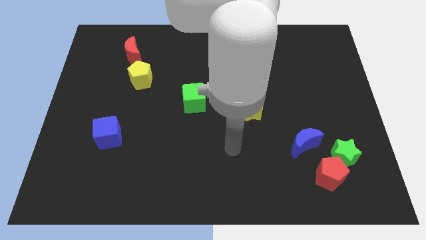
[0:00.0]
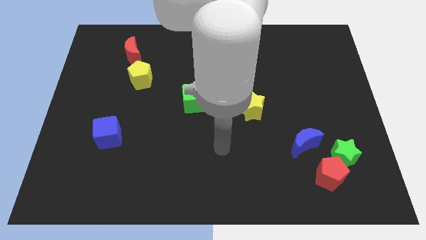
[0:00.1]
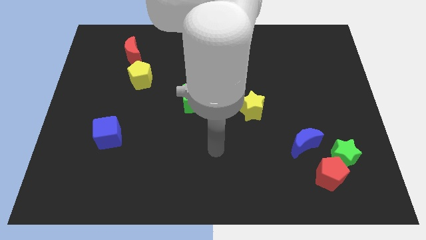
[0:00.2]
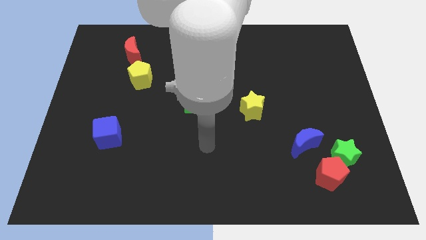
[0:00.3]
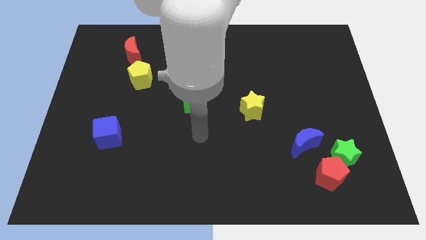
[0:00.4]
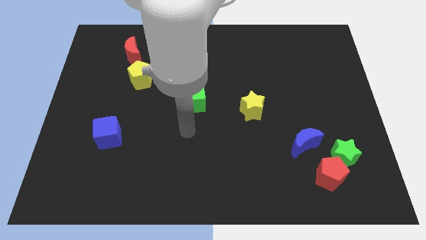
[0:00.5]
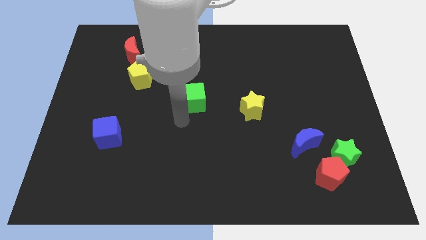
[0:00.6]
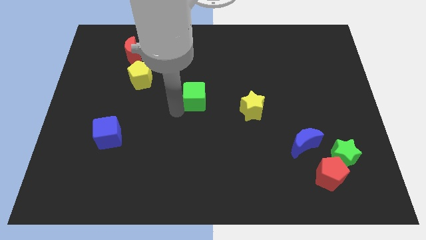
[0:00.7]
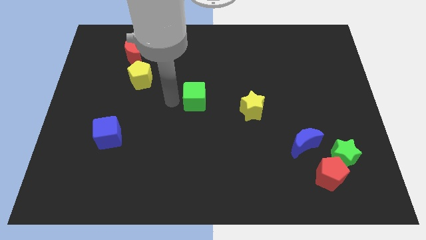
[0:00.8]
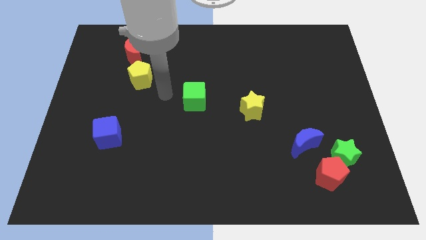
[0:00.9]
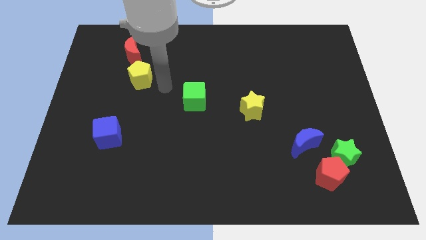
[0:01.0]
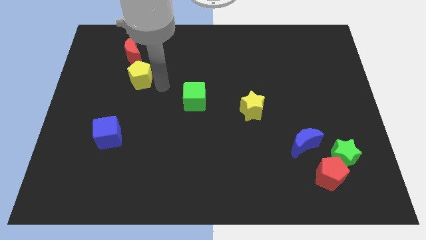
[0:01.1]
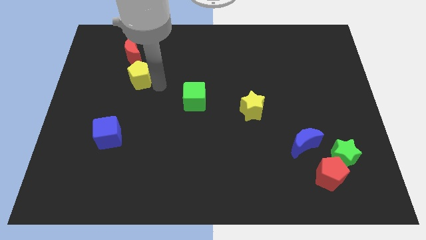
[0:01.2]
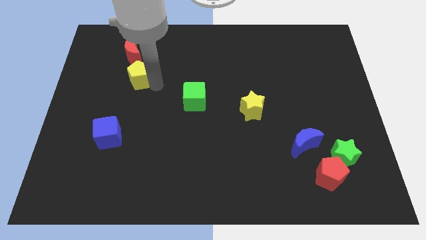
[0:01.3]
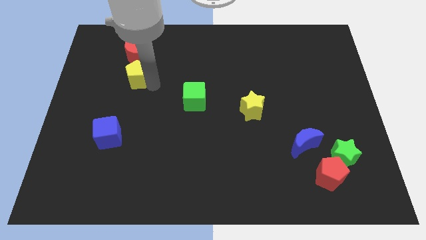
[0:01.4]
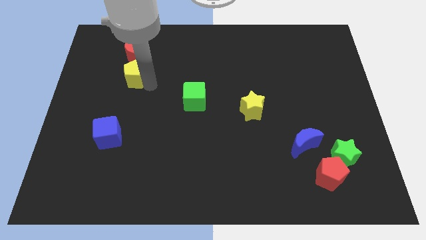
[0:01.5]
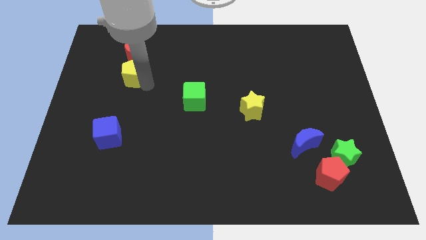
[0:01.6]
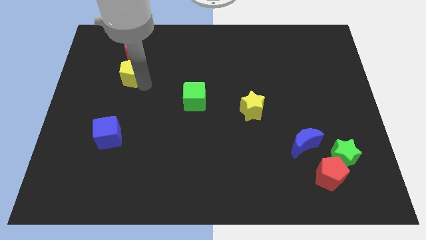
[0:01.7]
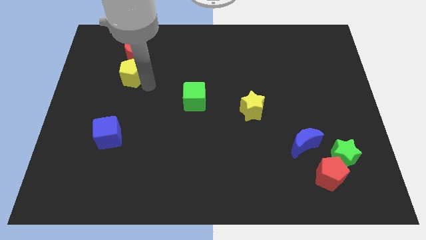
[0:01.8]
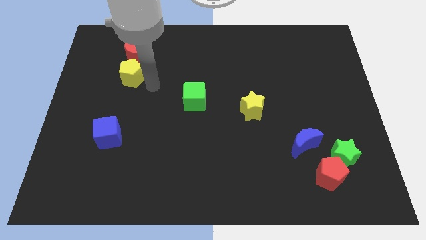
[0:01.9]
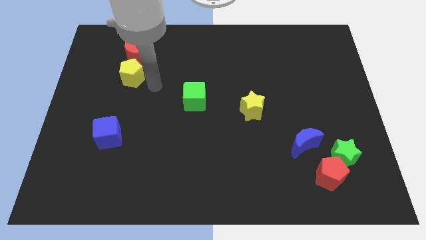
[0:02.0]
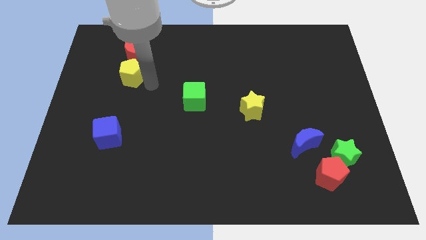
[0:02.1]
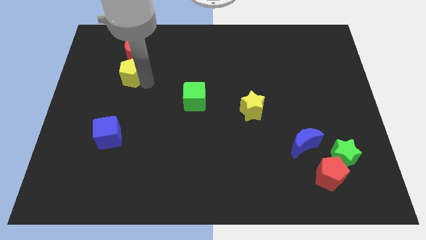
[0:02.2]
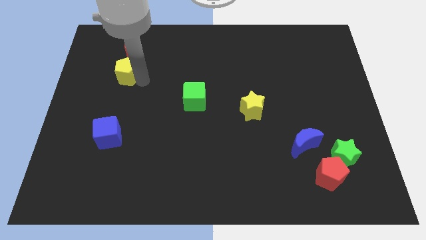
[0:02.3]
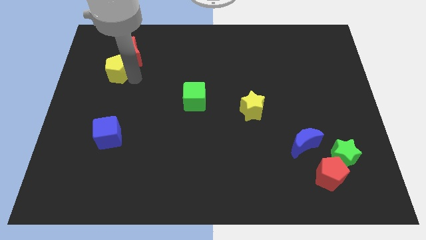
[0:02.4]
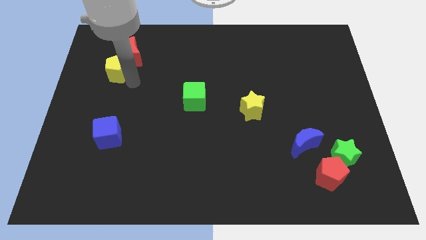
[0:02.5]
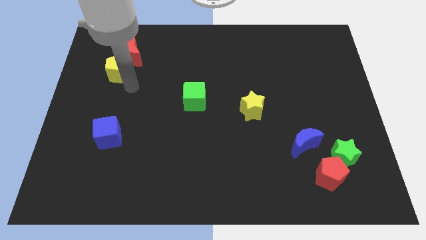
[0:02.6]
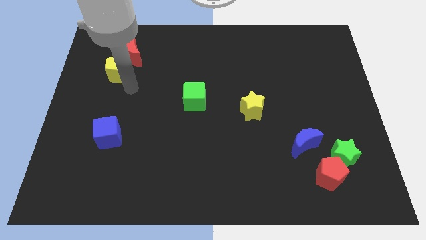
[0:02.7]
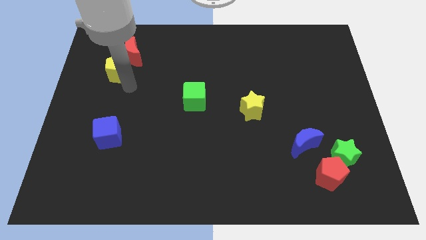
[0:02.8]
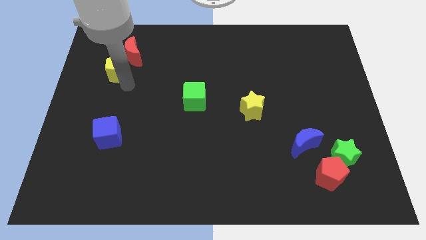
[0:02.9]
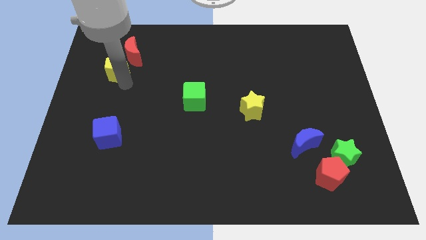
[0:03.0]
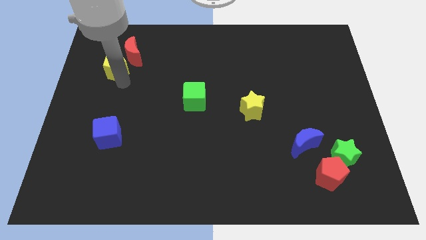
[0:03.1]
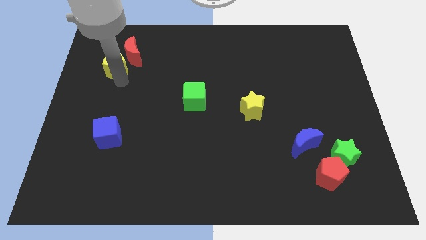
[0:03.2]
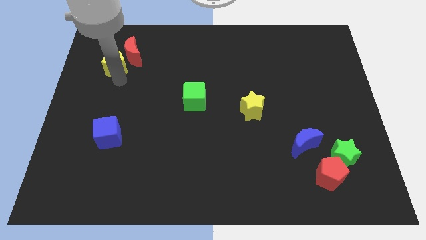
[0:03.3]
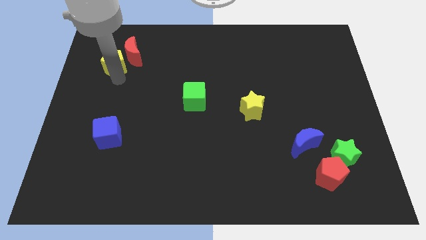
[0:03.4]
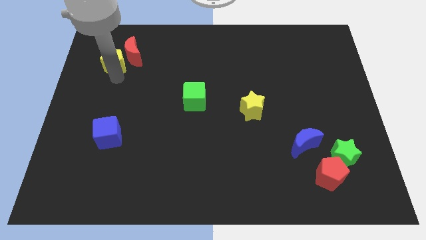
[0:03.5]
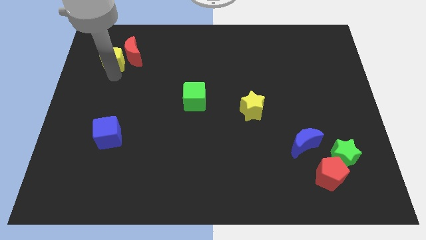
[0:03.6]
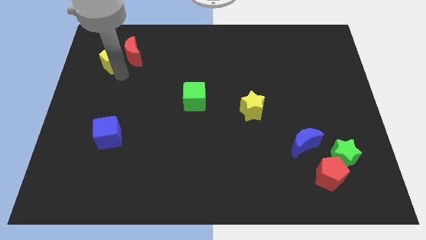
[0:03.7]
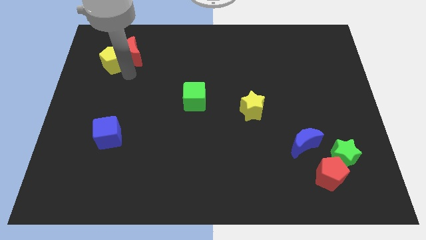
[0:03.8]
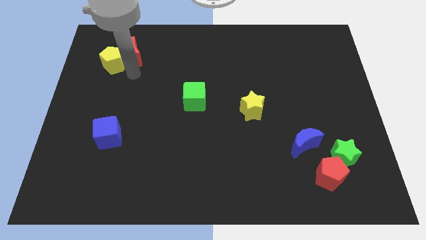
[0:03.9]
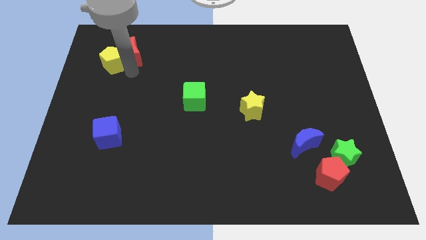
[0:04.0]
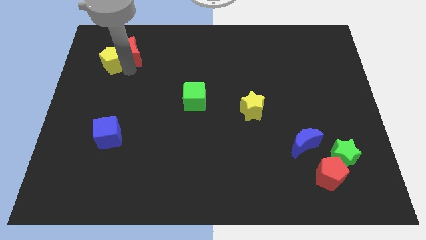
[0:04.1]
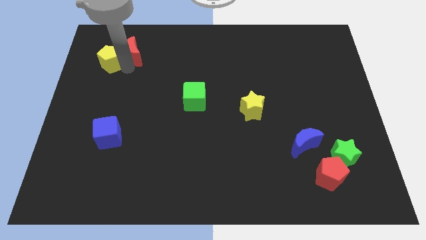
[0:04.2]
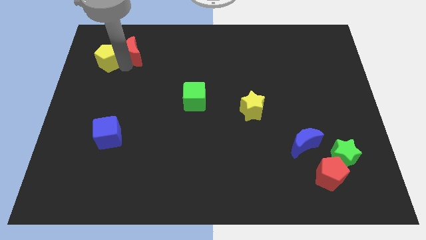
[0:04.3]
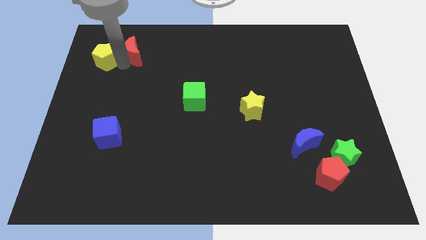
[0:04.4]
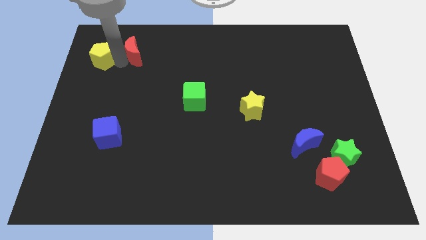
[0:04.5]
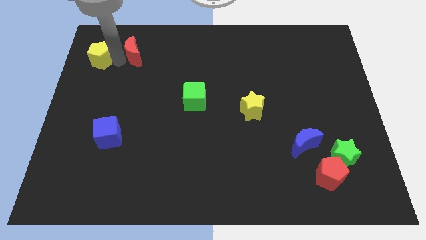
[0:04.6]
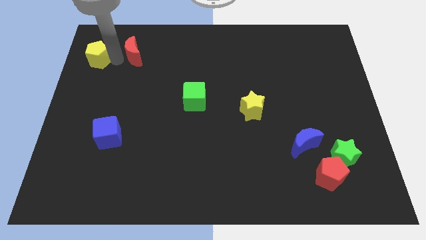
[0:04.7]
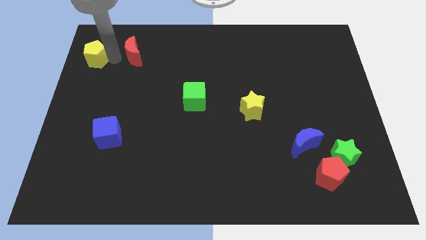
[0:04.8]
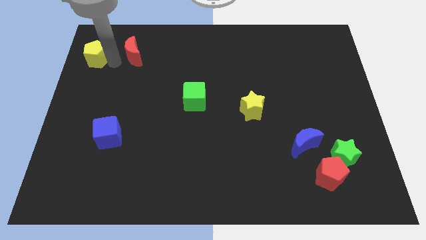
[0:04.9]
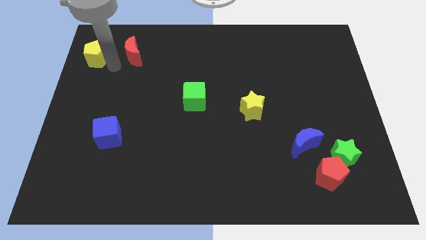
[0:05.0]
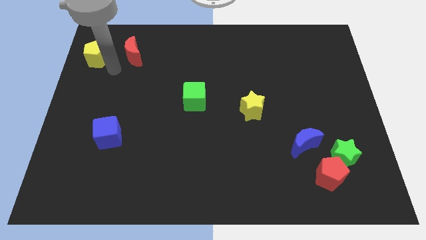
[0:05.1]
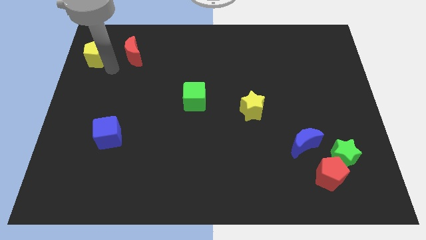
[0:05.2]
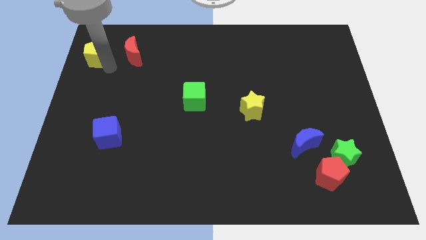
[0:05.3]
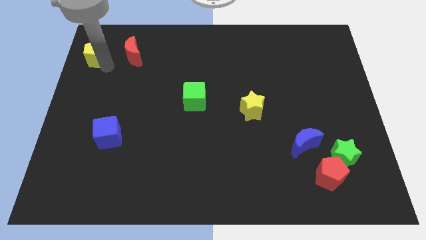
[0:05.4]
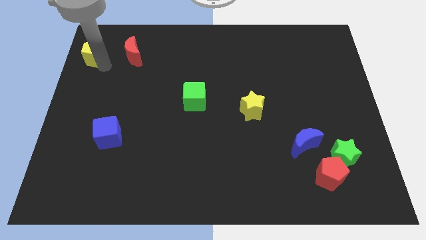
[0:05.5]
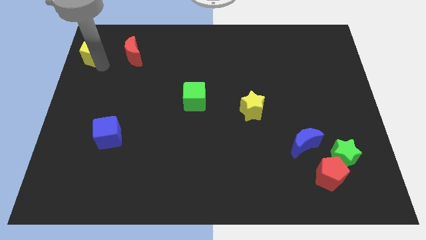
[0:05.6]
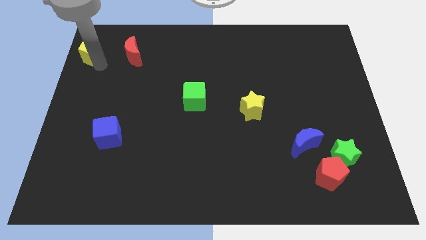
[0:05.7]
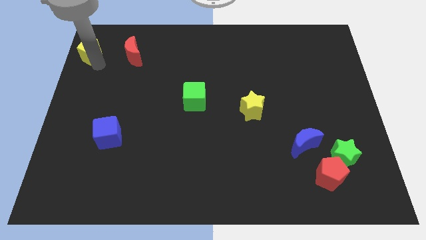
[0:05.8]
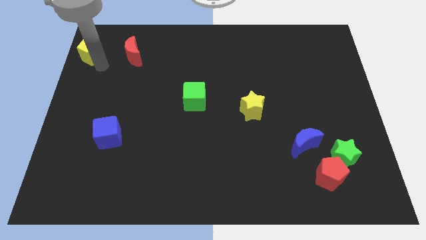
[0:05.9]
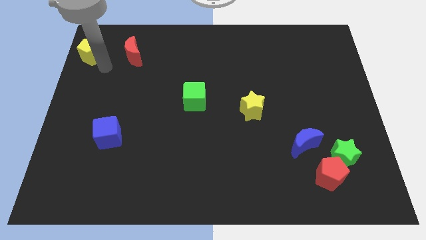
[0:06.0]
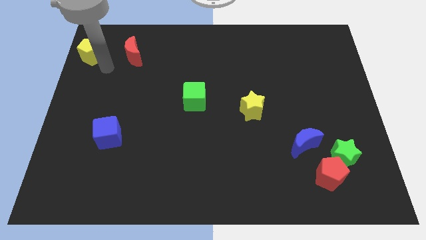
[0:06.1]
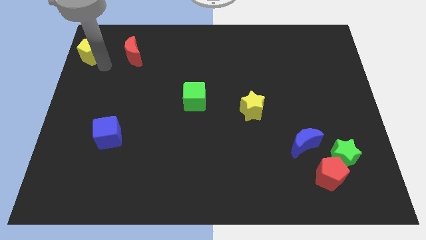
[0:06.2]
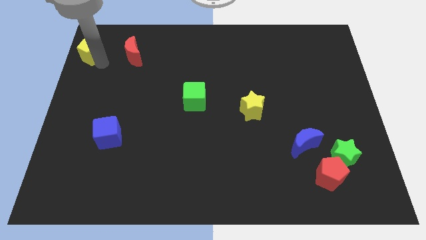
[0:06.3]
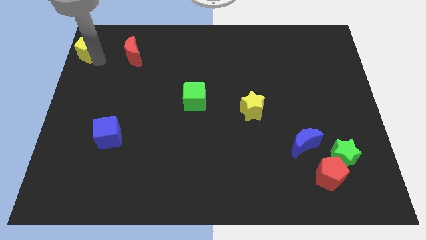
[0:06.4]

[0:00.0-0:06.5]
push the yellow pentagon to the top left corner
